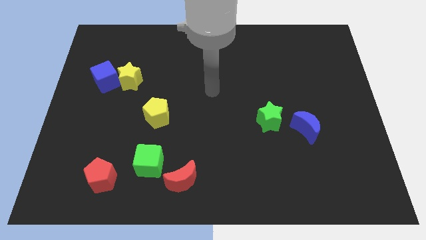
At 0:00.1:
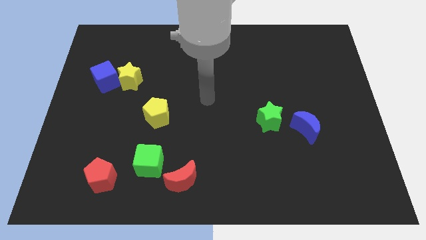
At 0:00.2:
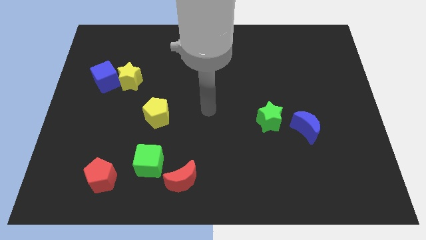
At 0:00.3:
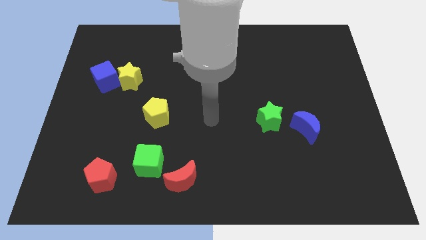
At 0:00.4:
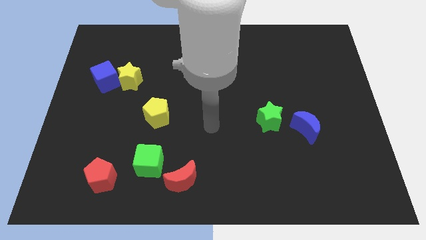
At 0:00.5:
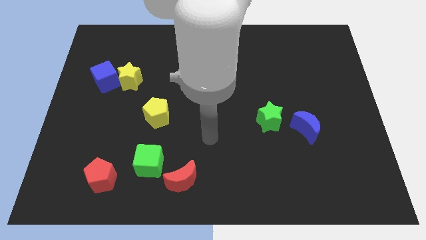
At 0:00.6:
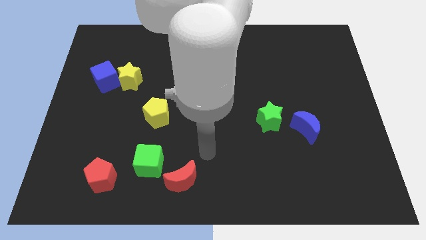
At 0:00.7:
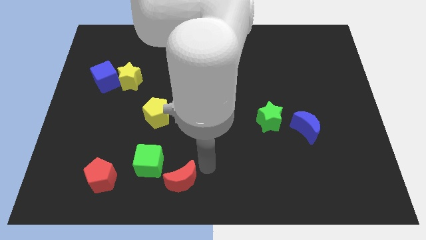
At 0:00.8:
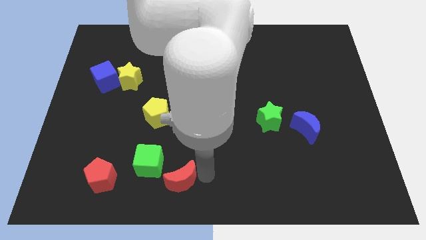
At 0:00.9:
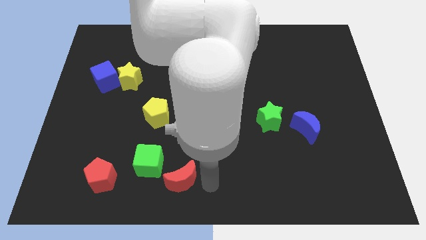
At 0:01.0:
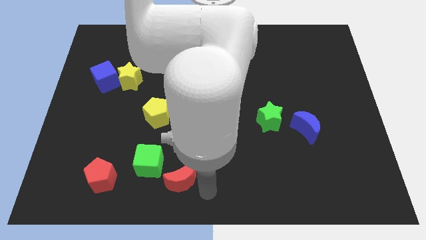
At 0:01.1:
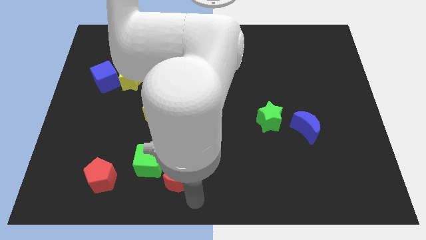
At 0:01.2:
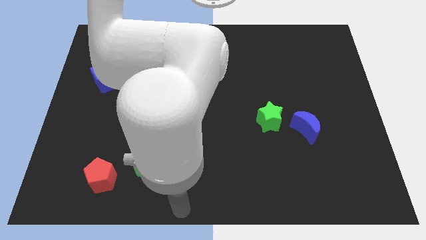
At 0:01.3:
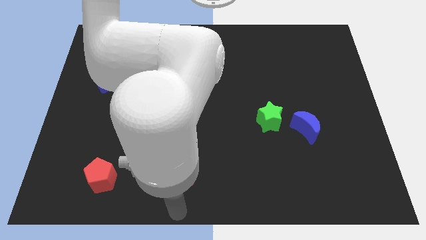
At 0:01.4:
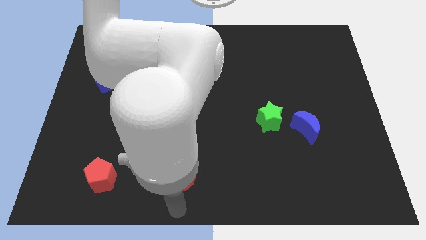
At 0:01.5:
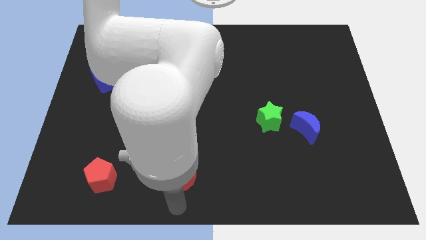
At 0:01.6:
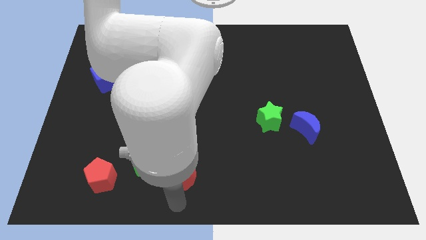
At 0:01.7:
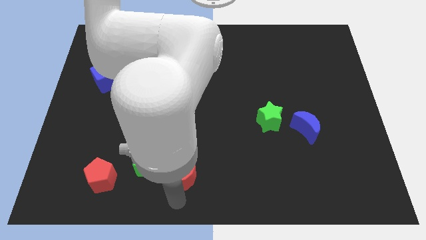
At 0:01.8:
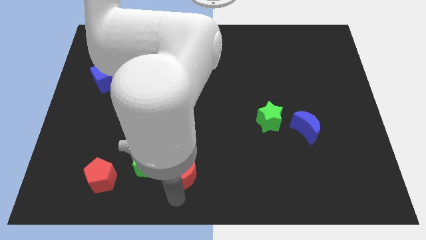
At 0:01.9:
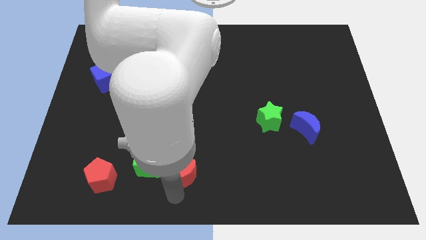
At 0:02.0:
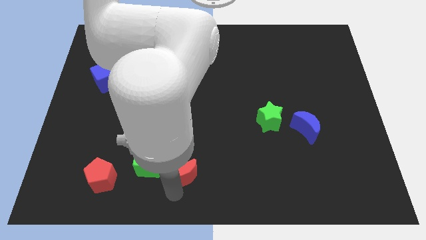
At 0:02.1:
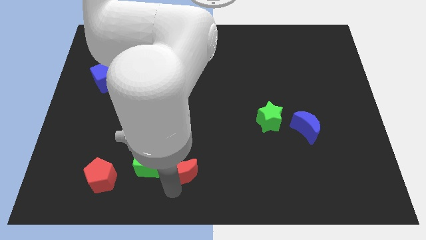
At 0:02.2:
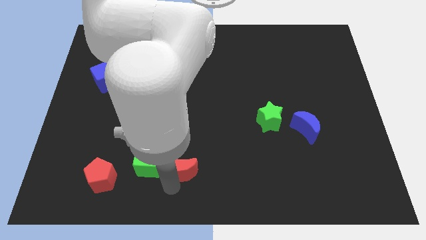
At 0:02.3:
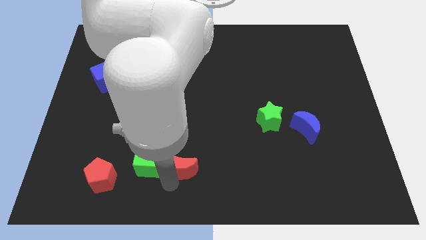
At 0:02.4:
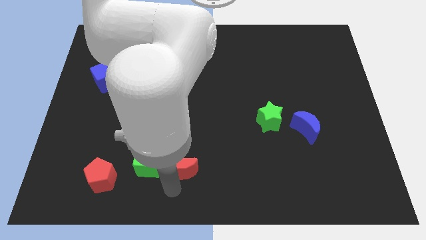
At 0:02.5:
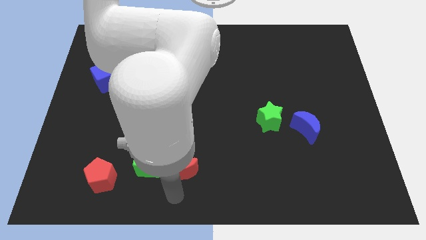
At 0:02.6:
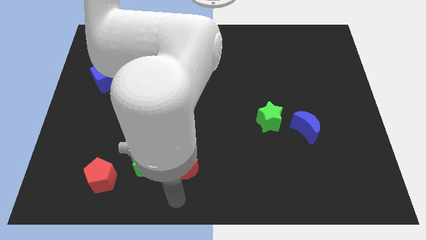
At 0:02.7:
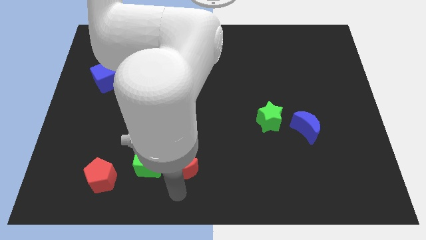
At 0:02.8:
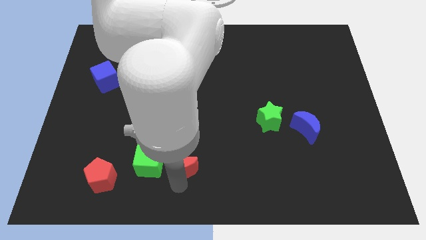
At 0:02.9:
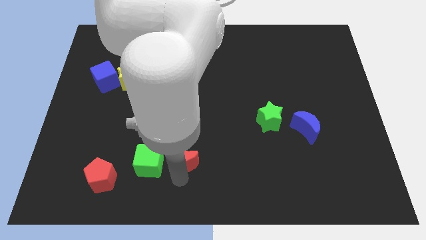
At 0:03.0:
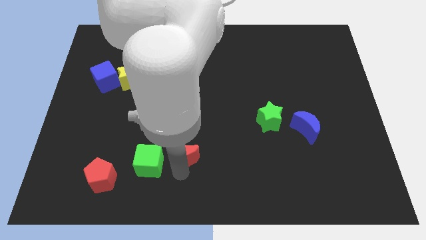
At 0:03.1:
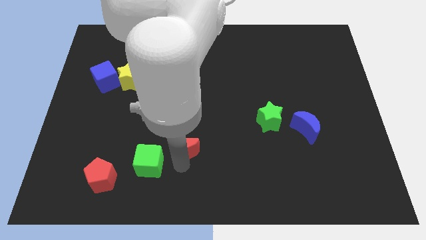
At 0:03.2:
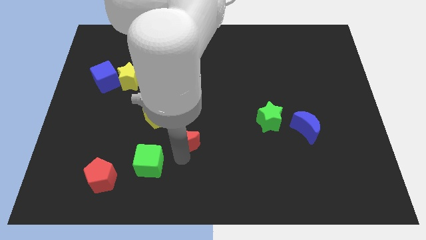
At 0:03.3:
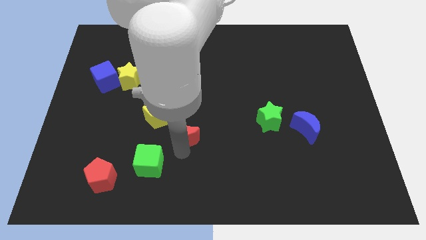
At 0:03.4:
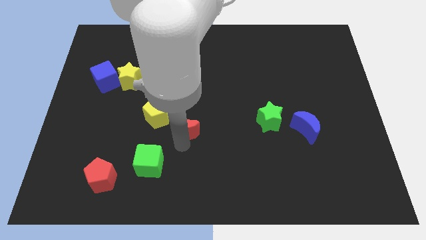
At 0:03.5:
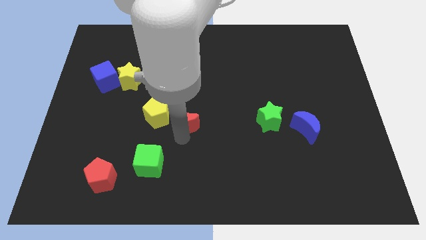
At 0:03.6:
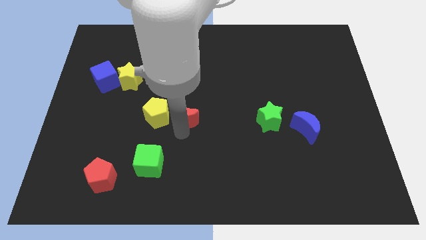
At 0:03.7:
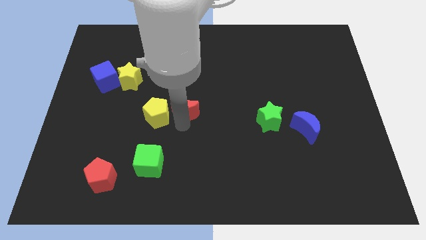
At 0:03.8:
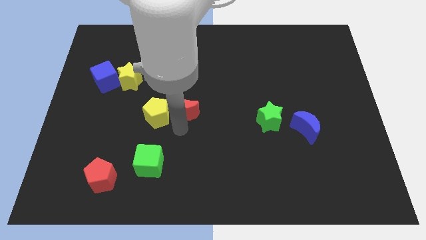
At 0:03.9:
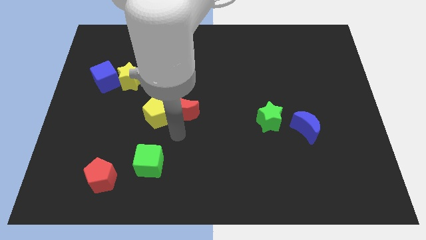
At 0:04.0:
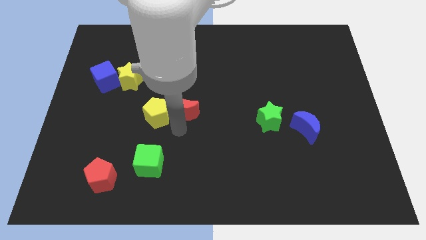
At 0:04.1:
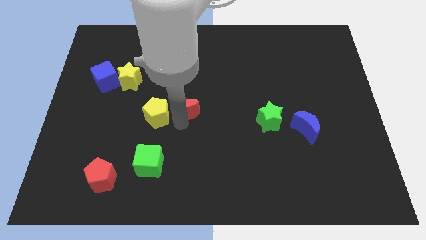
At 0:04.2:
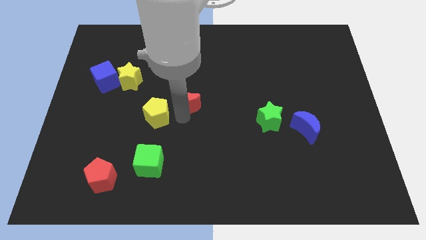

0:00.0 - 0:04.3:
move the red moon upwards

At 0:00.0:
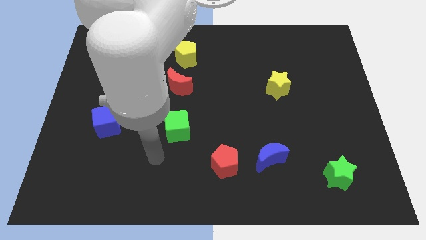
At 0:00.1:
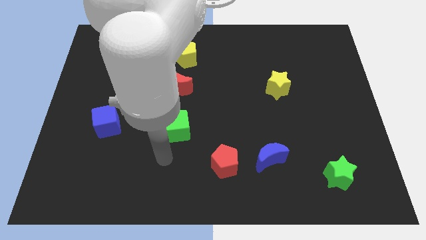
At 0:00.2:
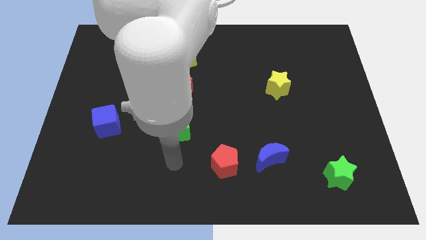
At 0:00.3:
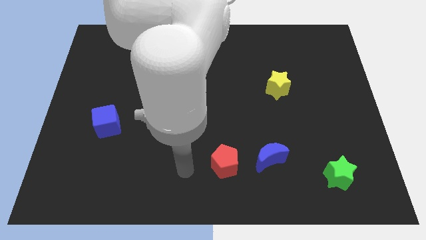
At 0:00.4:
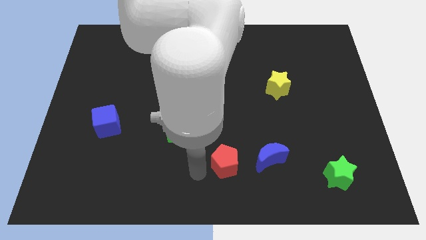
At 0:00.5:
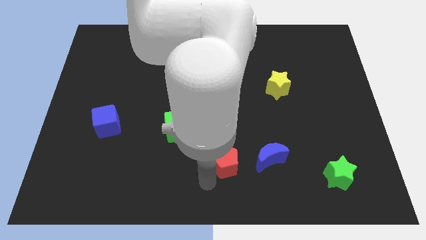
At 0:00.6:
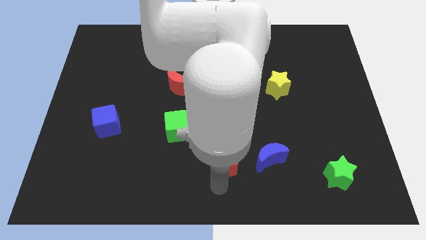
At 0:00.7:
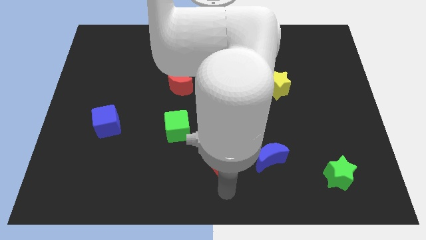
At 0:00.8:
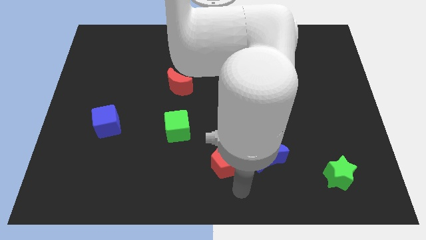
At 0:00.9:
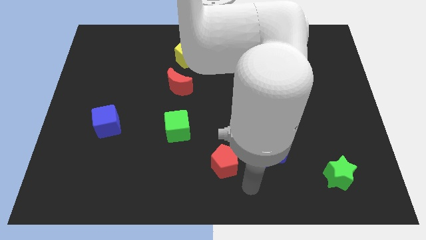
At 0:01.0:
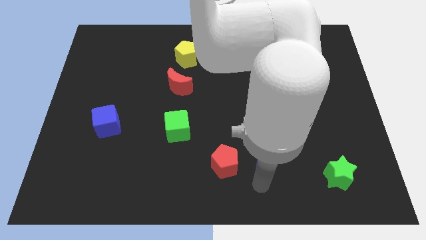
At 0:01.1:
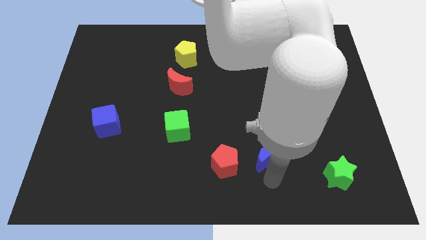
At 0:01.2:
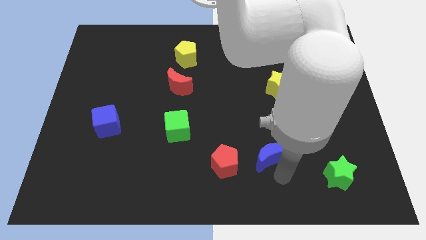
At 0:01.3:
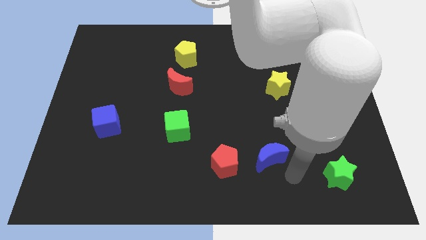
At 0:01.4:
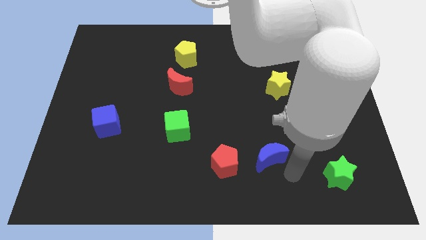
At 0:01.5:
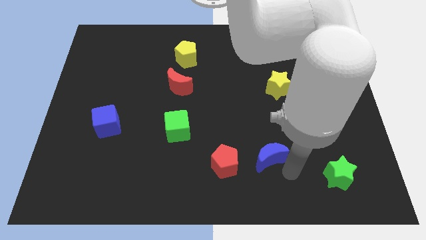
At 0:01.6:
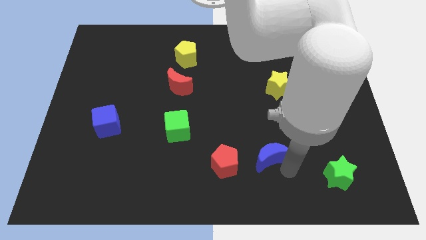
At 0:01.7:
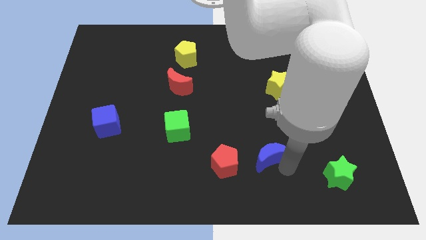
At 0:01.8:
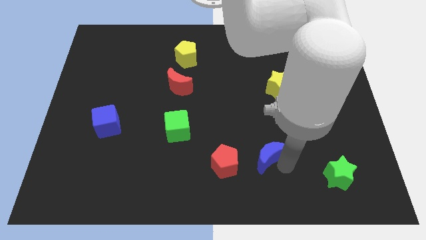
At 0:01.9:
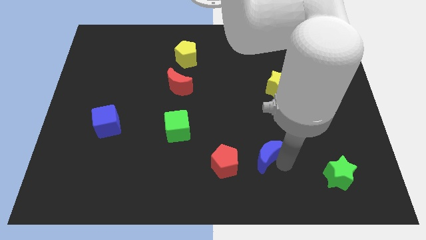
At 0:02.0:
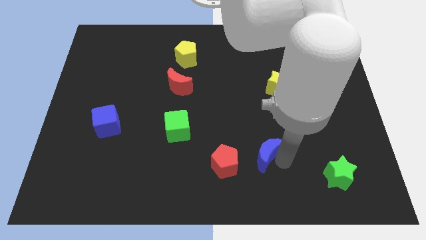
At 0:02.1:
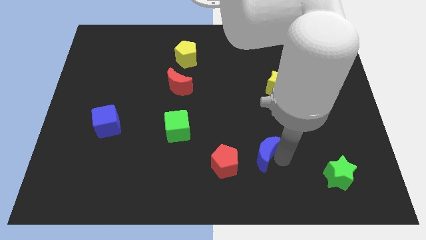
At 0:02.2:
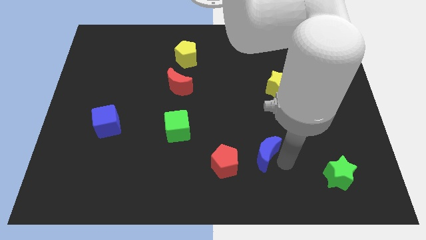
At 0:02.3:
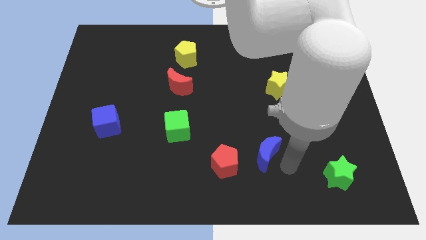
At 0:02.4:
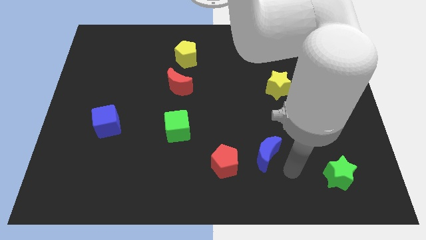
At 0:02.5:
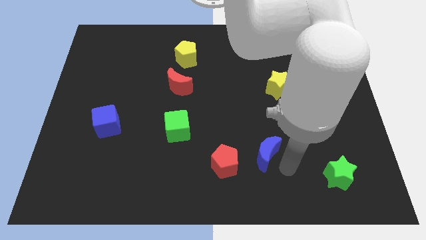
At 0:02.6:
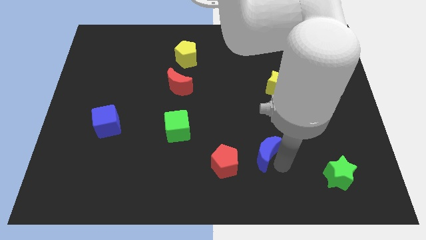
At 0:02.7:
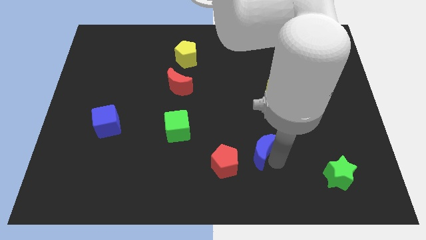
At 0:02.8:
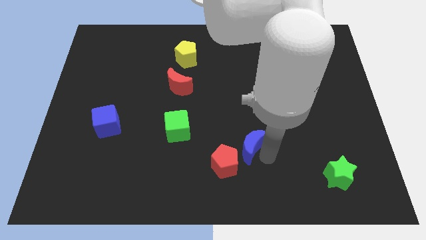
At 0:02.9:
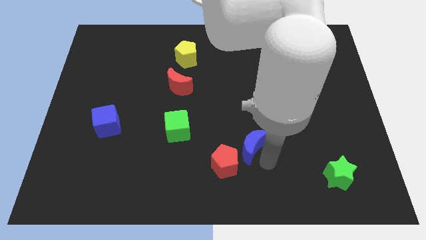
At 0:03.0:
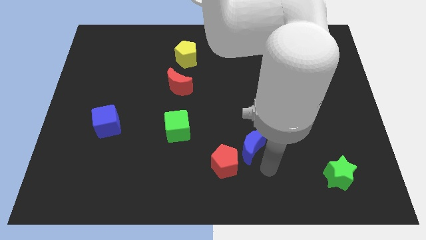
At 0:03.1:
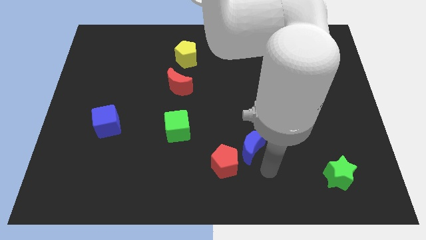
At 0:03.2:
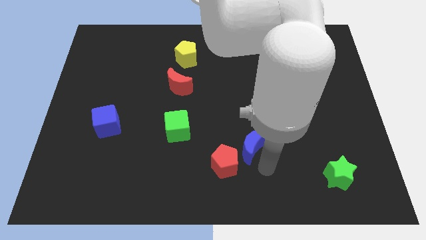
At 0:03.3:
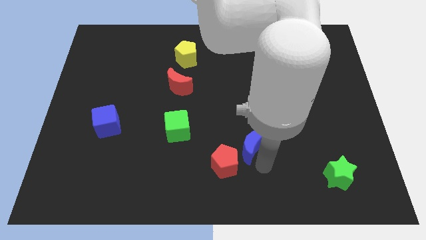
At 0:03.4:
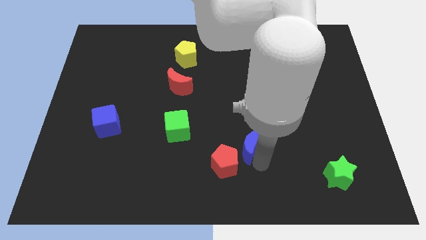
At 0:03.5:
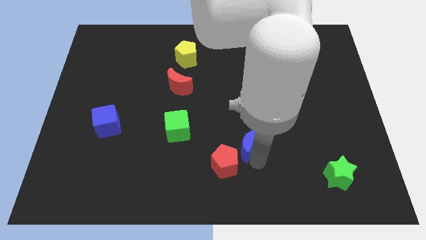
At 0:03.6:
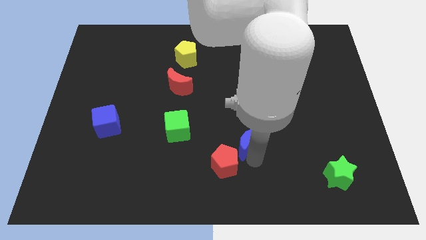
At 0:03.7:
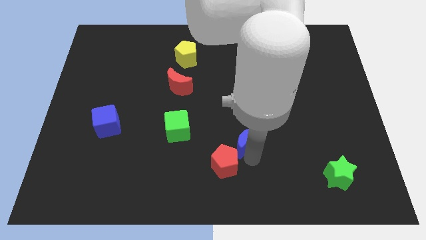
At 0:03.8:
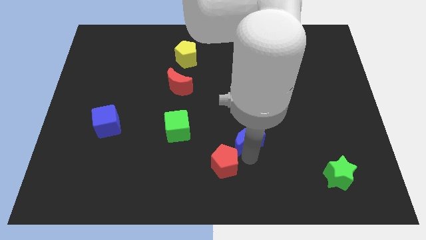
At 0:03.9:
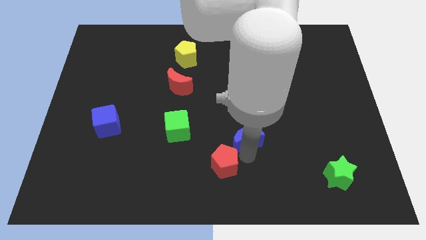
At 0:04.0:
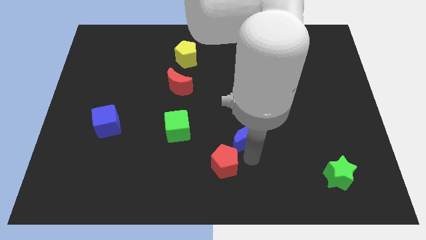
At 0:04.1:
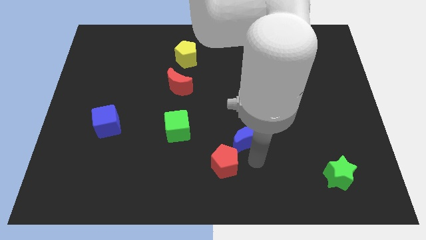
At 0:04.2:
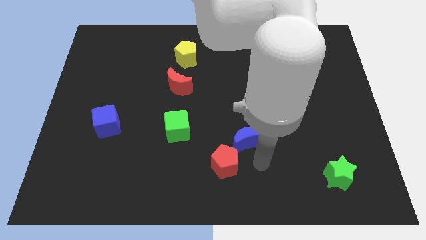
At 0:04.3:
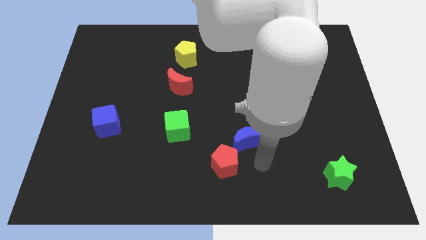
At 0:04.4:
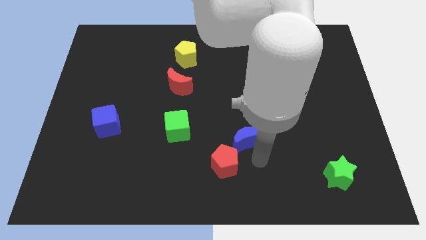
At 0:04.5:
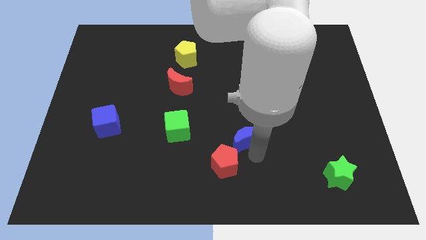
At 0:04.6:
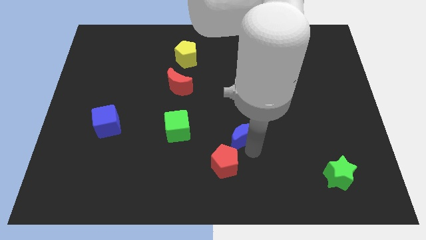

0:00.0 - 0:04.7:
push the blue moon upwards and to the left somewhat
